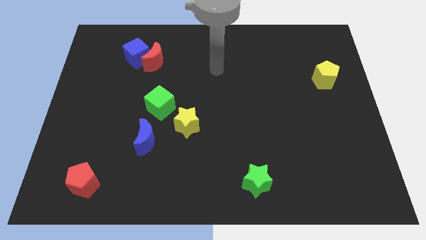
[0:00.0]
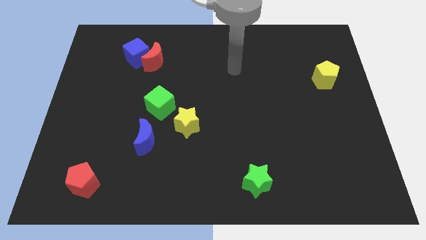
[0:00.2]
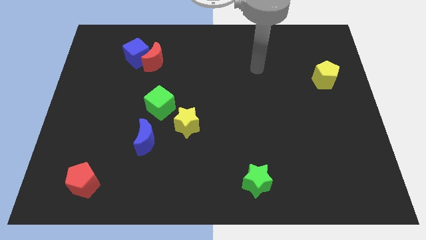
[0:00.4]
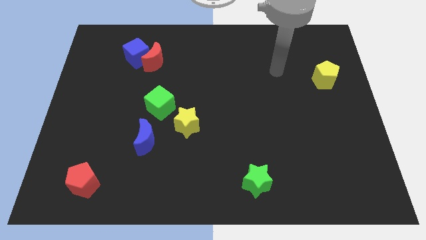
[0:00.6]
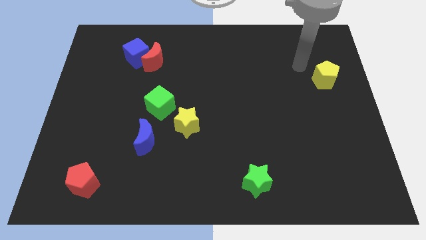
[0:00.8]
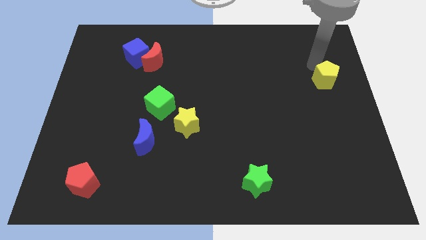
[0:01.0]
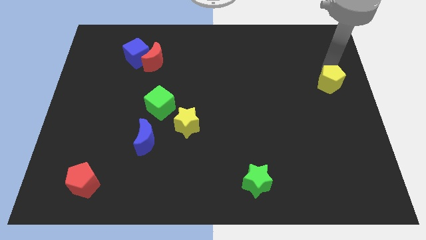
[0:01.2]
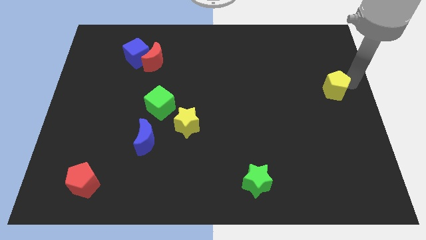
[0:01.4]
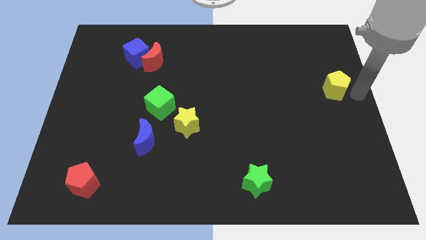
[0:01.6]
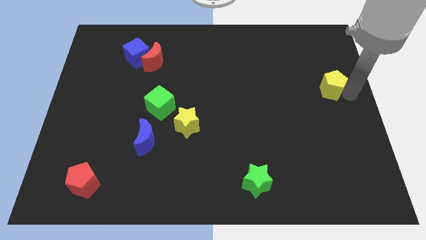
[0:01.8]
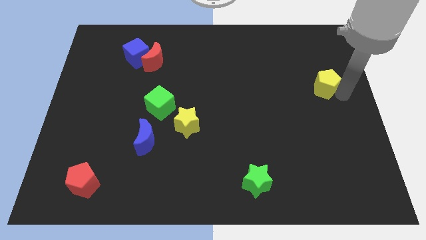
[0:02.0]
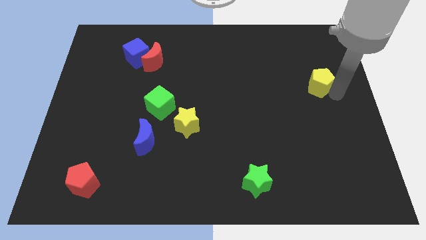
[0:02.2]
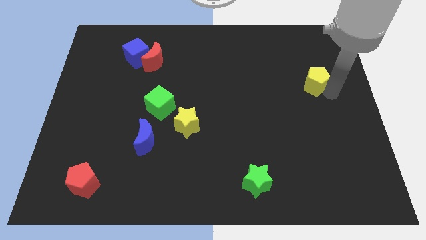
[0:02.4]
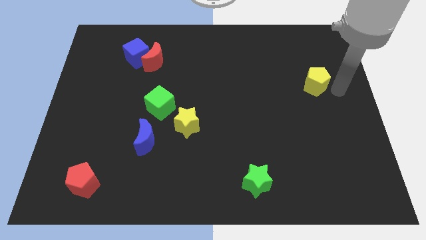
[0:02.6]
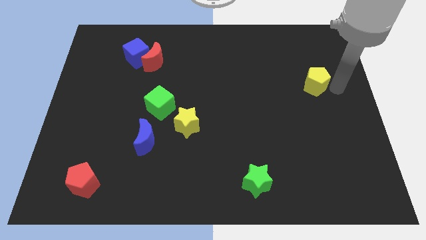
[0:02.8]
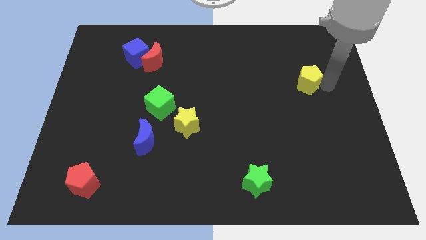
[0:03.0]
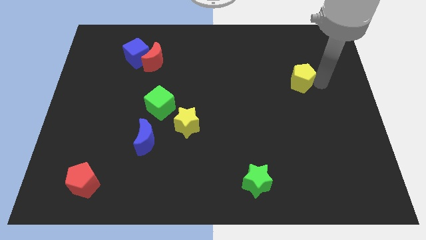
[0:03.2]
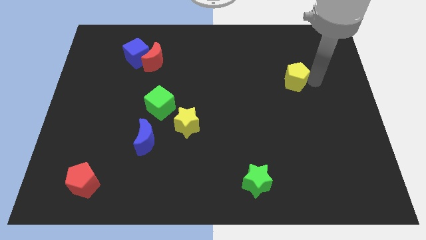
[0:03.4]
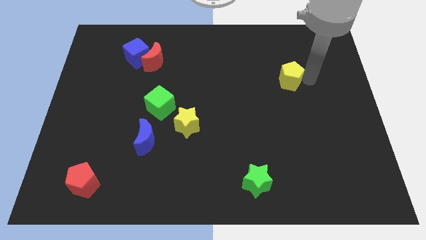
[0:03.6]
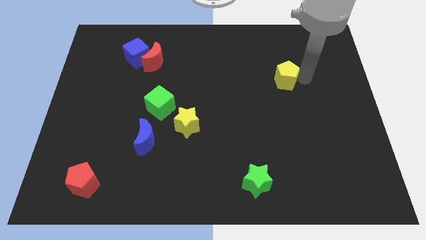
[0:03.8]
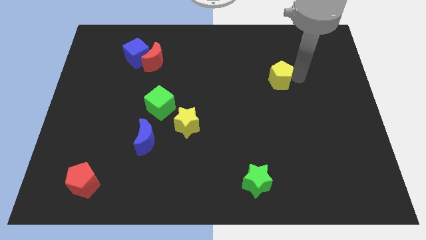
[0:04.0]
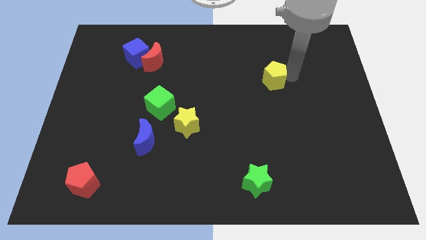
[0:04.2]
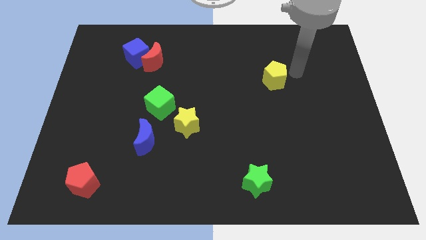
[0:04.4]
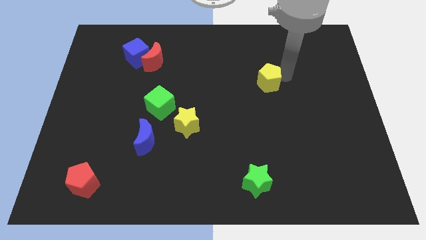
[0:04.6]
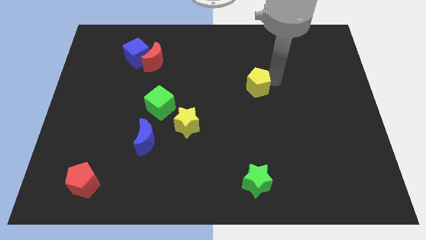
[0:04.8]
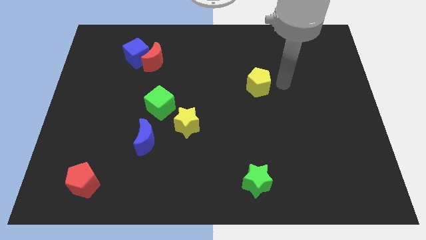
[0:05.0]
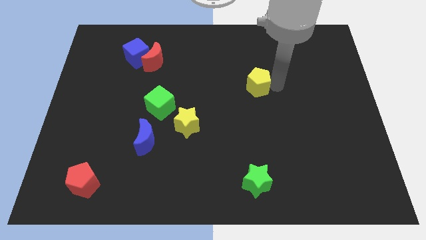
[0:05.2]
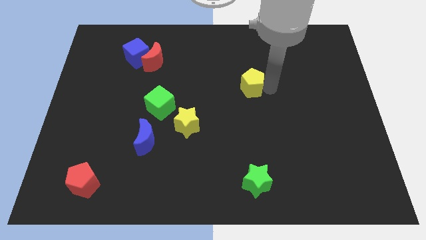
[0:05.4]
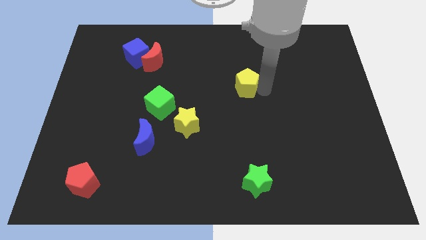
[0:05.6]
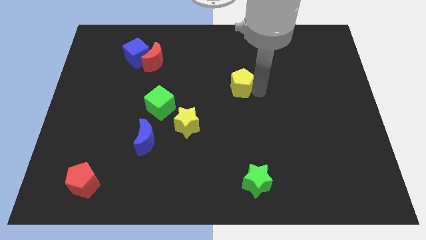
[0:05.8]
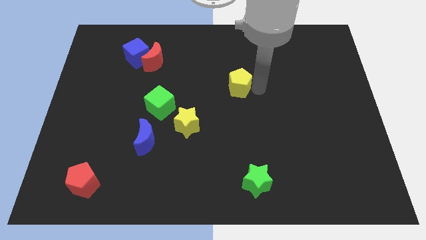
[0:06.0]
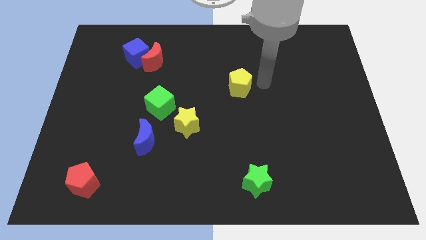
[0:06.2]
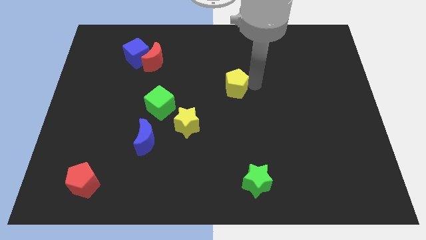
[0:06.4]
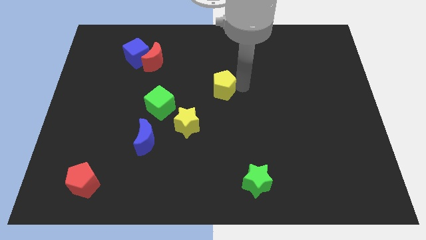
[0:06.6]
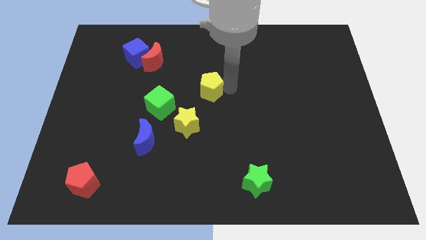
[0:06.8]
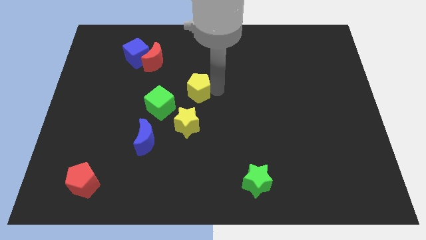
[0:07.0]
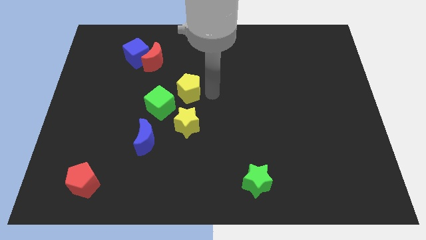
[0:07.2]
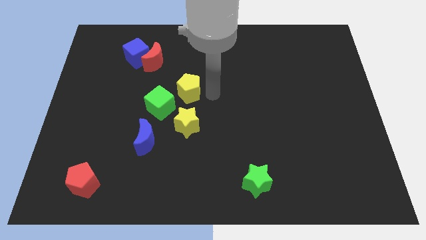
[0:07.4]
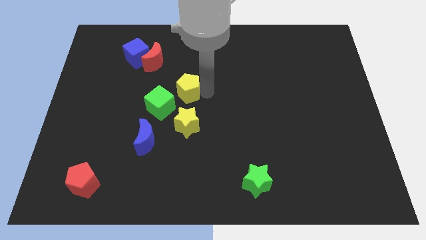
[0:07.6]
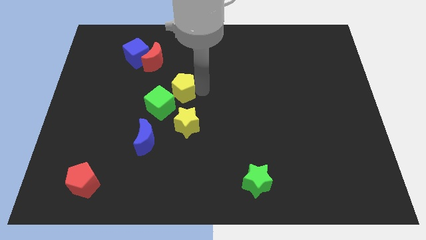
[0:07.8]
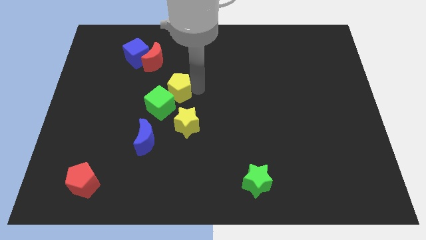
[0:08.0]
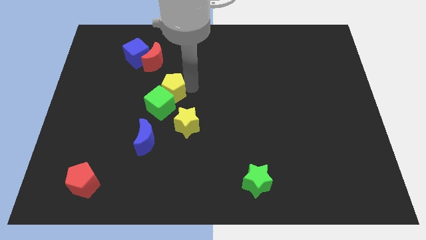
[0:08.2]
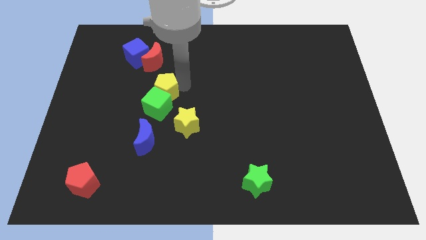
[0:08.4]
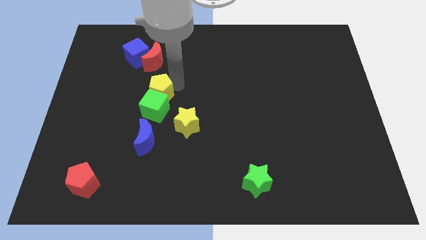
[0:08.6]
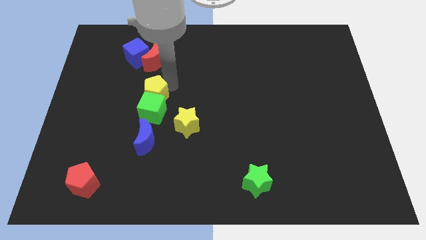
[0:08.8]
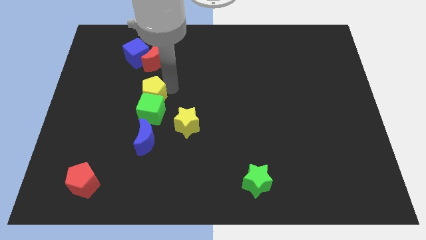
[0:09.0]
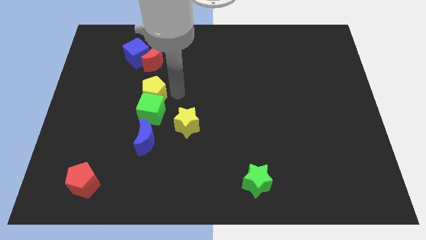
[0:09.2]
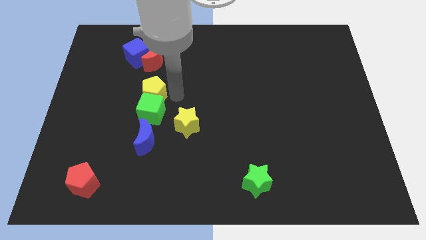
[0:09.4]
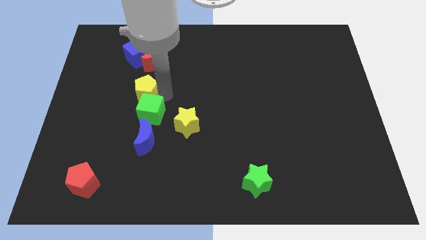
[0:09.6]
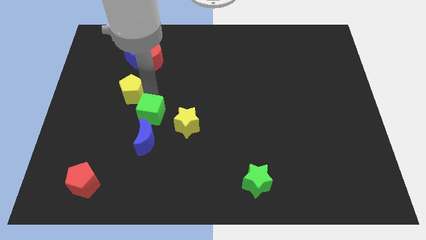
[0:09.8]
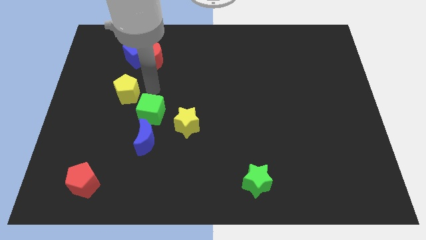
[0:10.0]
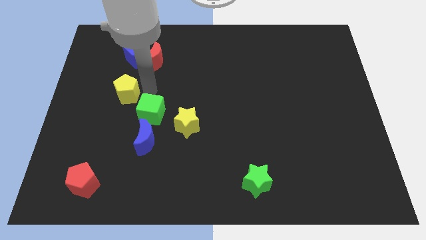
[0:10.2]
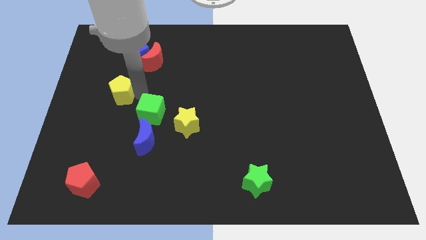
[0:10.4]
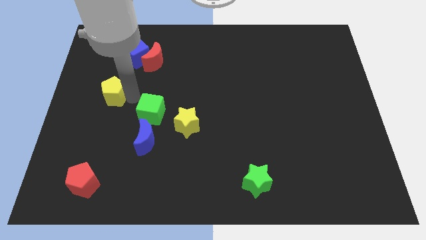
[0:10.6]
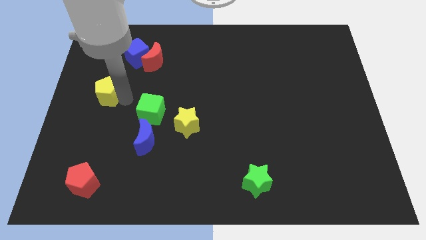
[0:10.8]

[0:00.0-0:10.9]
push the yellow pentagon to the center left

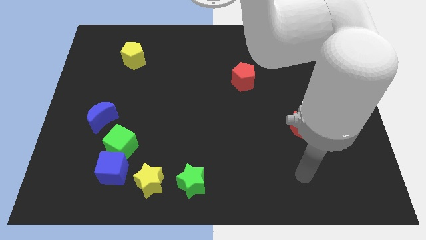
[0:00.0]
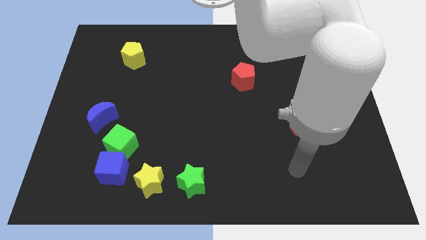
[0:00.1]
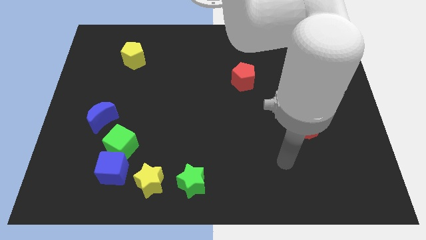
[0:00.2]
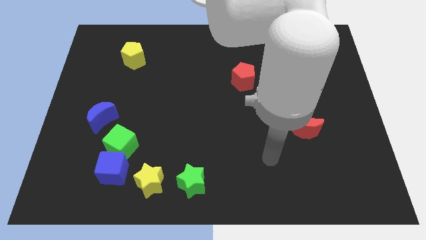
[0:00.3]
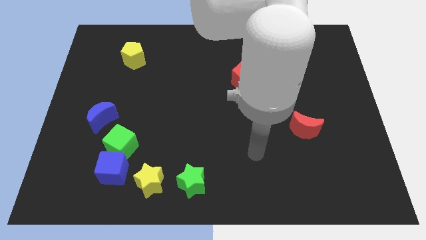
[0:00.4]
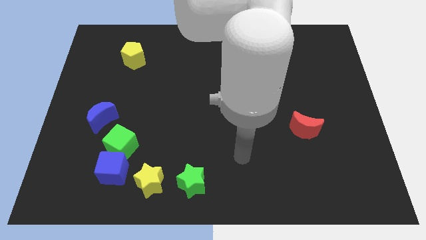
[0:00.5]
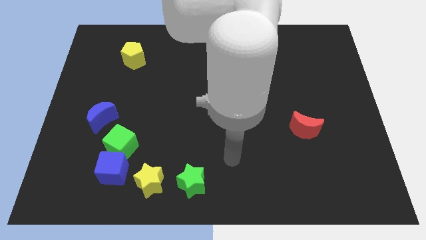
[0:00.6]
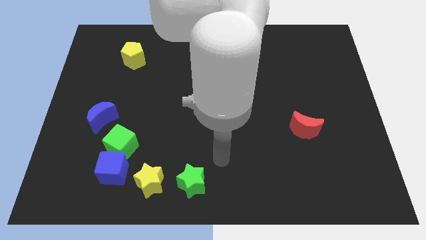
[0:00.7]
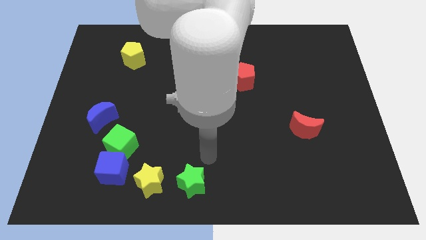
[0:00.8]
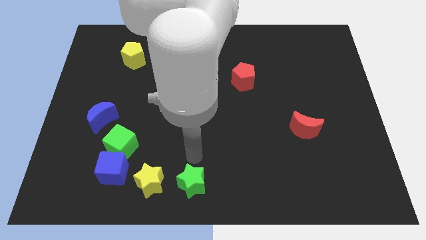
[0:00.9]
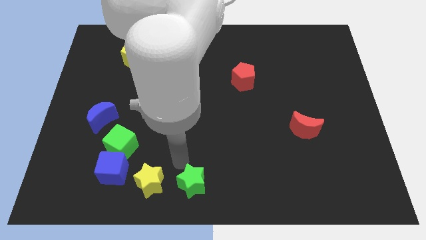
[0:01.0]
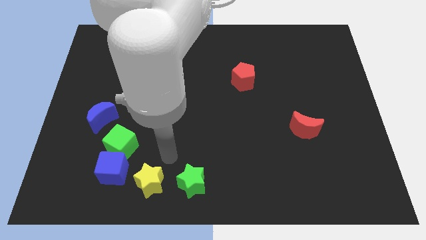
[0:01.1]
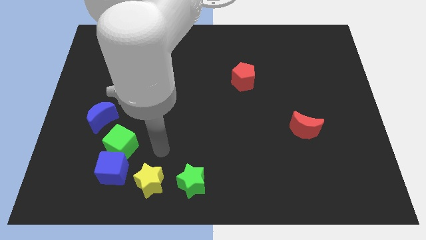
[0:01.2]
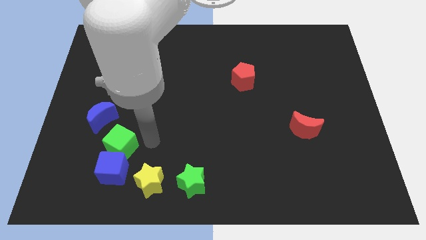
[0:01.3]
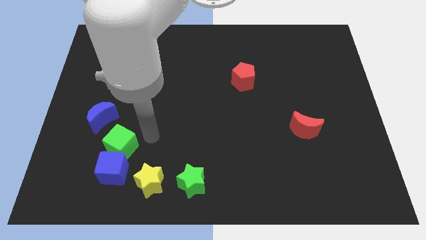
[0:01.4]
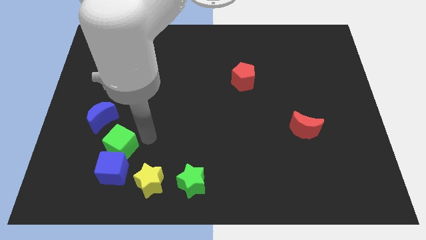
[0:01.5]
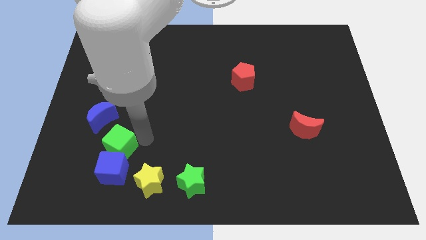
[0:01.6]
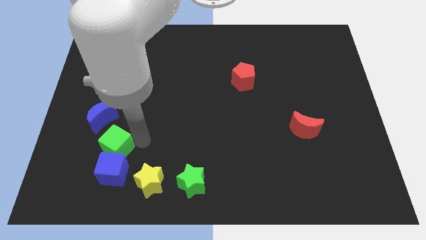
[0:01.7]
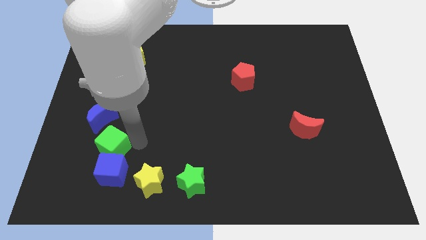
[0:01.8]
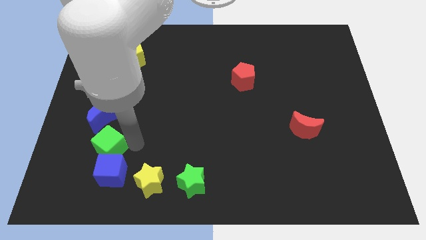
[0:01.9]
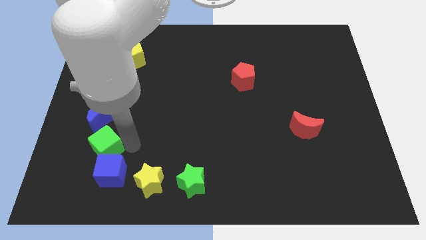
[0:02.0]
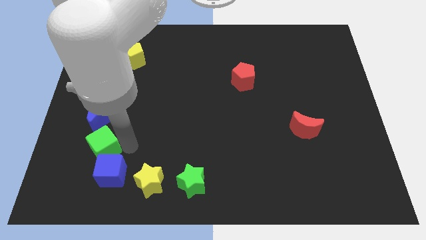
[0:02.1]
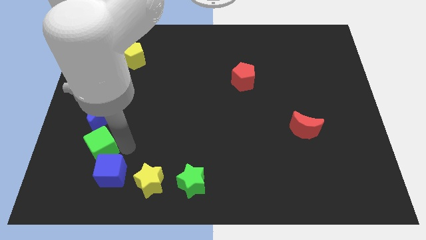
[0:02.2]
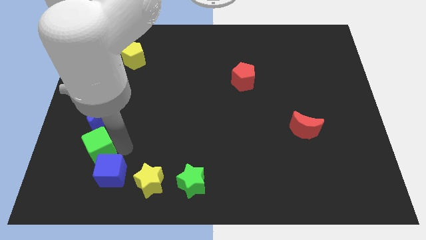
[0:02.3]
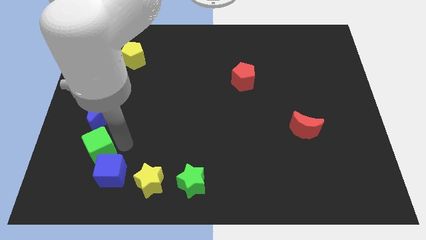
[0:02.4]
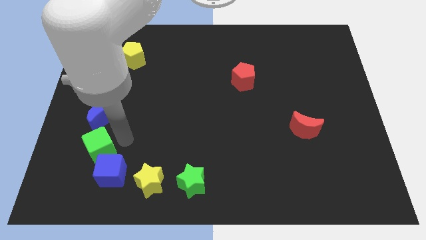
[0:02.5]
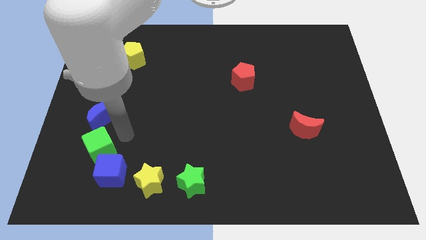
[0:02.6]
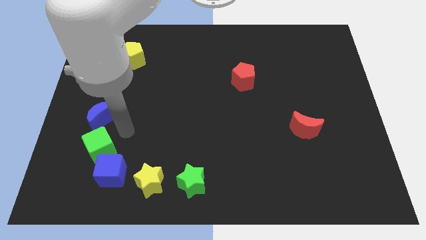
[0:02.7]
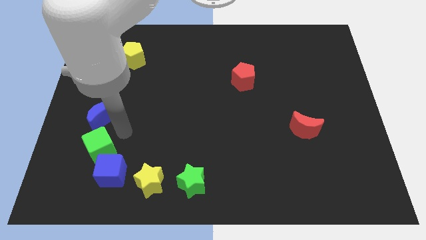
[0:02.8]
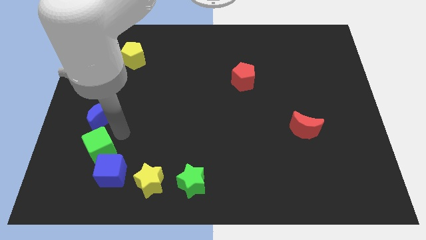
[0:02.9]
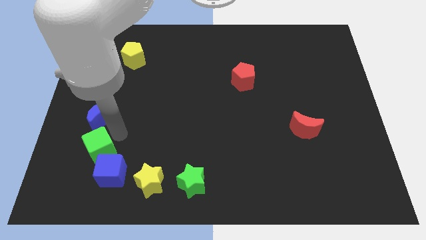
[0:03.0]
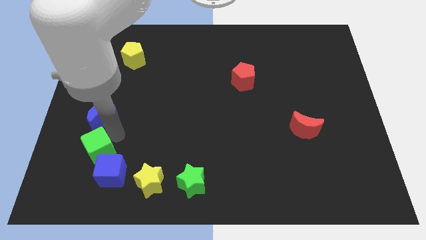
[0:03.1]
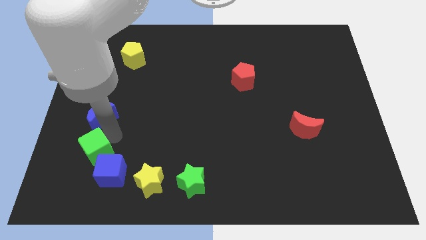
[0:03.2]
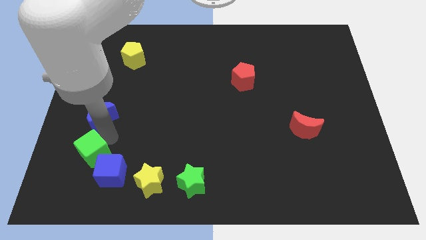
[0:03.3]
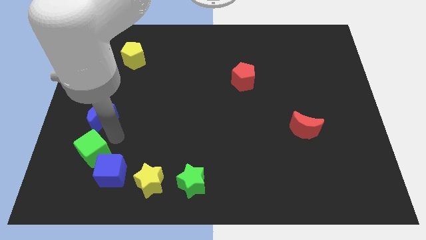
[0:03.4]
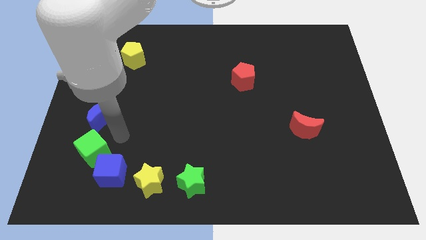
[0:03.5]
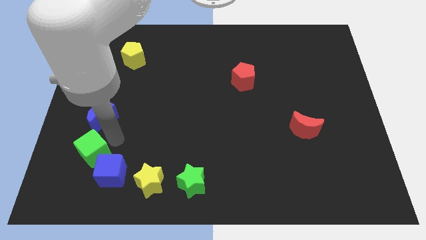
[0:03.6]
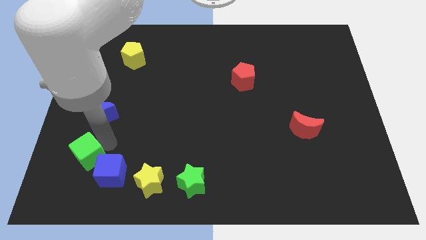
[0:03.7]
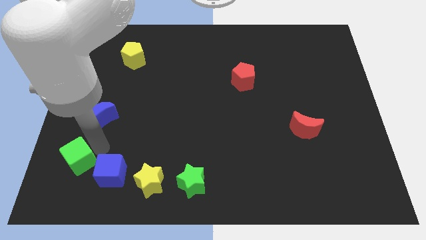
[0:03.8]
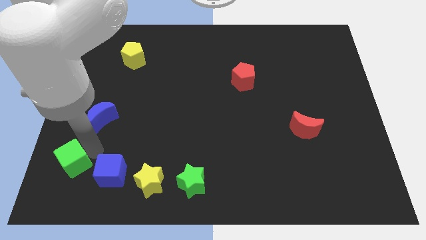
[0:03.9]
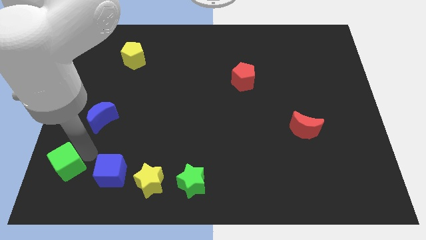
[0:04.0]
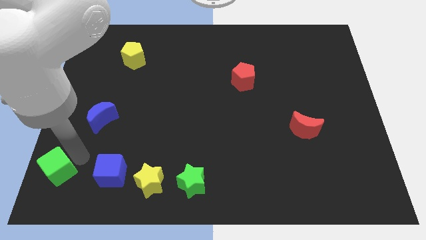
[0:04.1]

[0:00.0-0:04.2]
move the green cube to the bottom left corner
